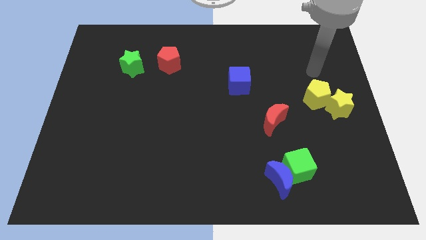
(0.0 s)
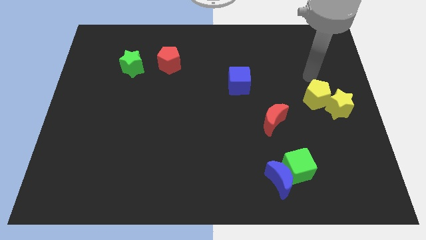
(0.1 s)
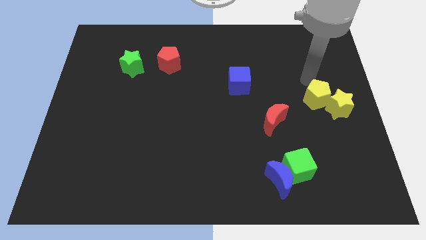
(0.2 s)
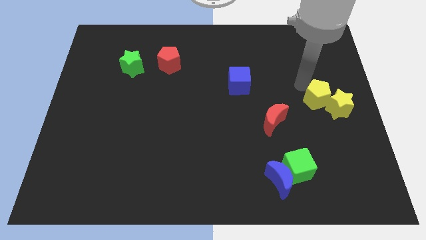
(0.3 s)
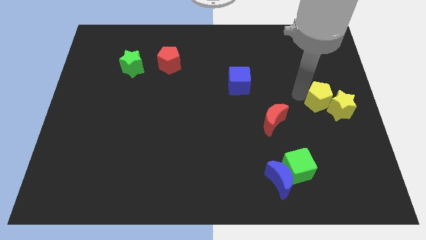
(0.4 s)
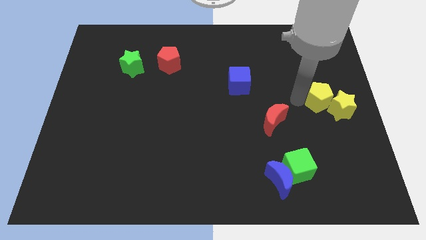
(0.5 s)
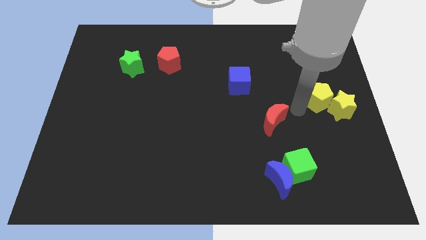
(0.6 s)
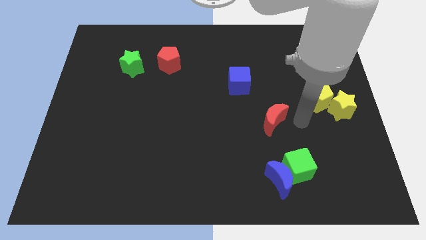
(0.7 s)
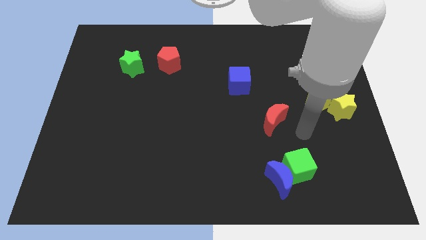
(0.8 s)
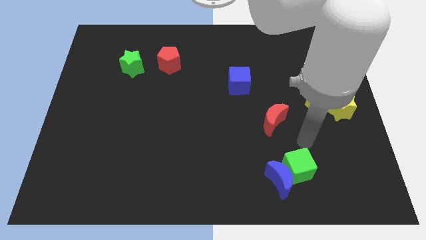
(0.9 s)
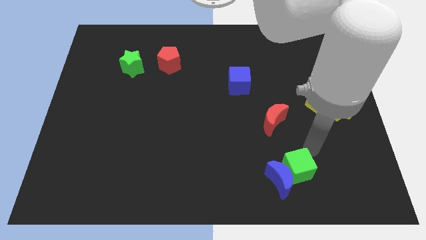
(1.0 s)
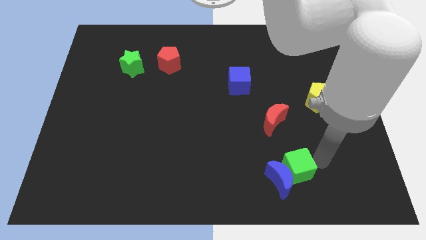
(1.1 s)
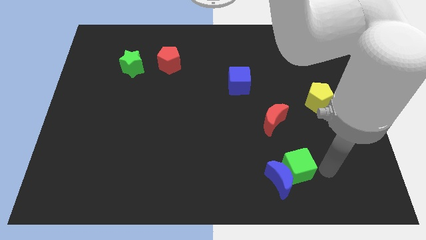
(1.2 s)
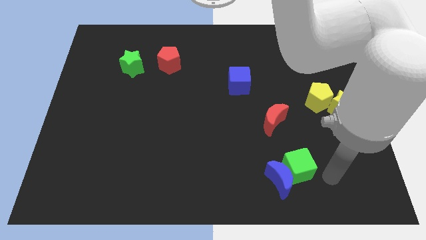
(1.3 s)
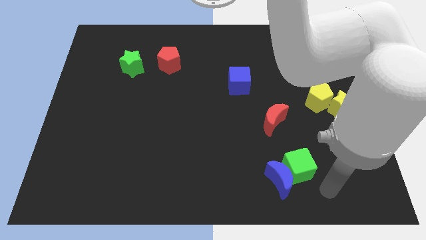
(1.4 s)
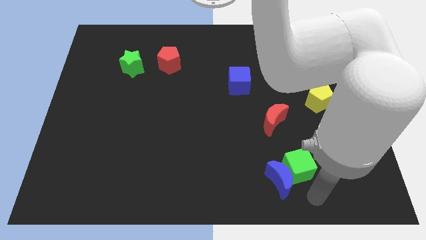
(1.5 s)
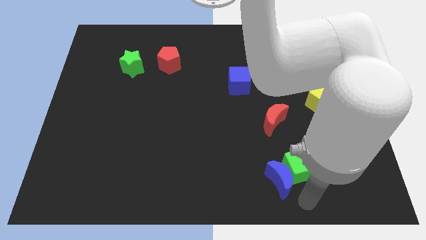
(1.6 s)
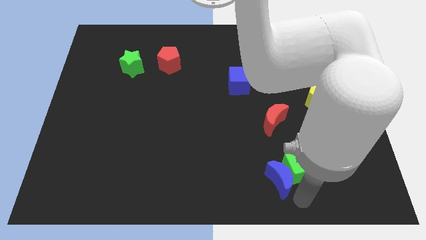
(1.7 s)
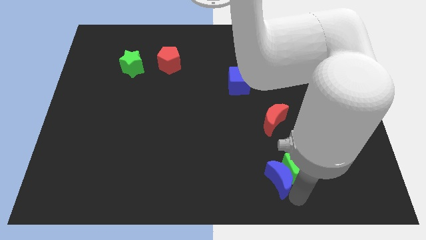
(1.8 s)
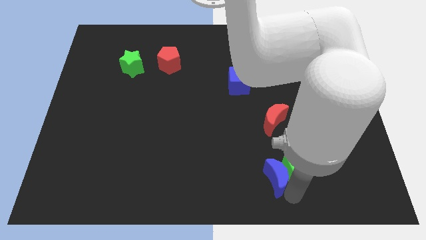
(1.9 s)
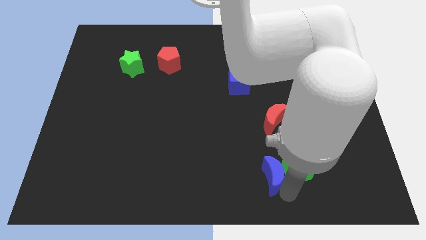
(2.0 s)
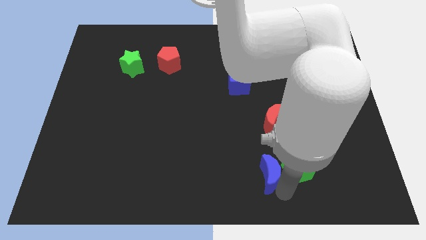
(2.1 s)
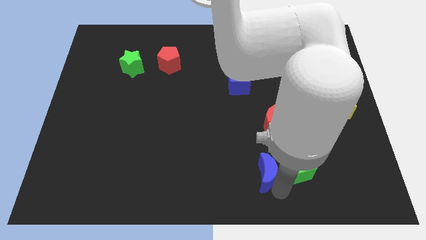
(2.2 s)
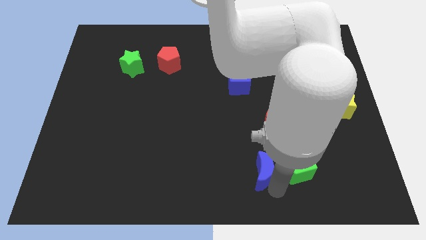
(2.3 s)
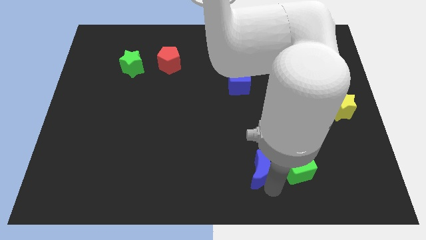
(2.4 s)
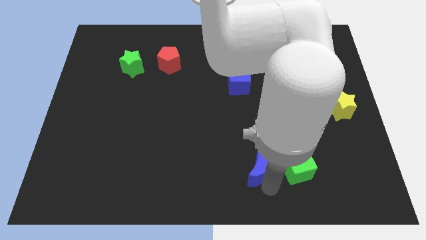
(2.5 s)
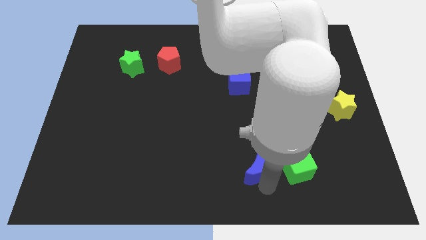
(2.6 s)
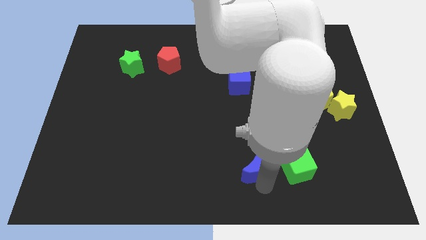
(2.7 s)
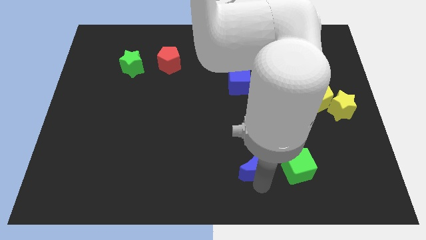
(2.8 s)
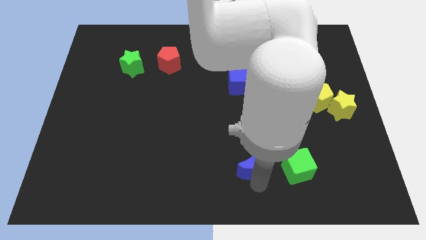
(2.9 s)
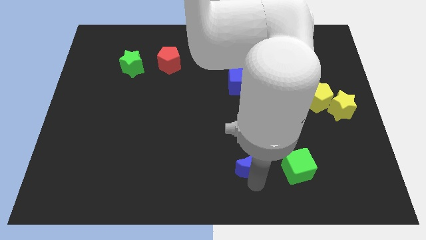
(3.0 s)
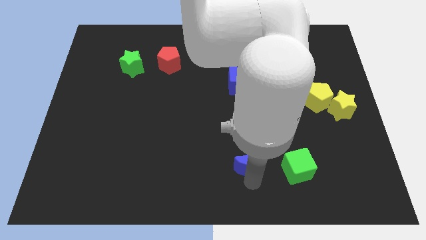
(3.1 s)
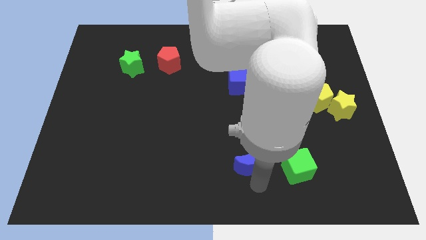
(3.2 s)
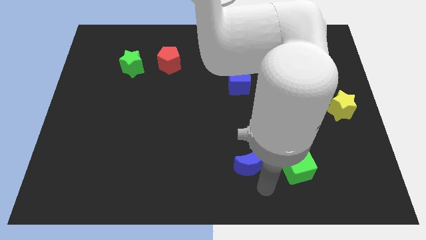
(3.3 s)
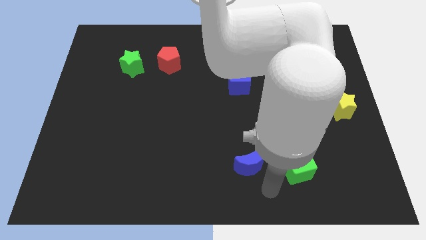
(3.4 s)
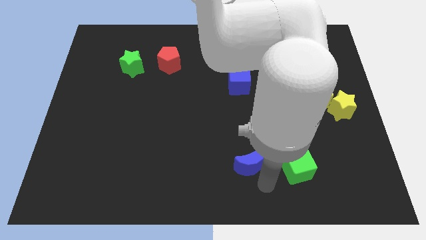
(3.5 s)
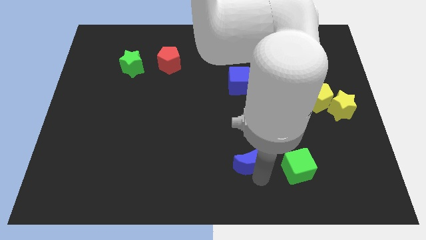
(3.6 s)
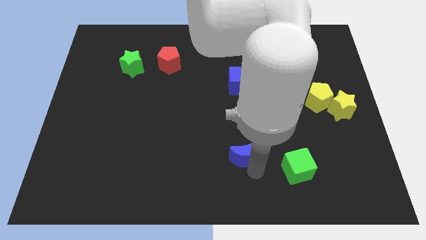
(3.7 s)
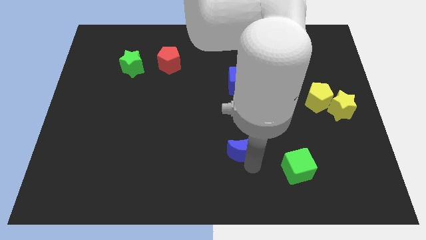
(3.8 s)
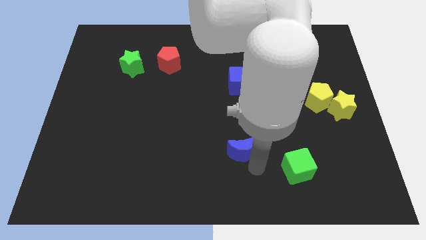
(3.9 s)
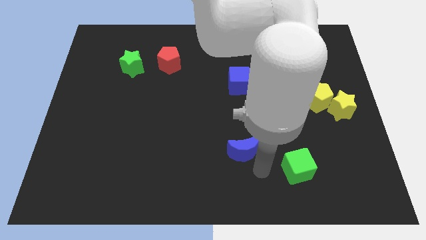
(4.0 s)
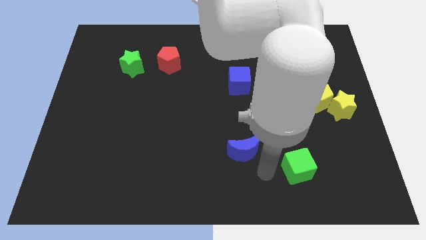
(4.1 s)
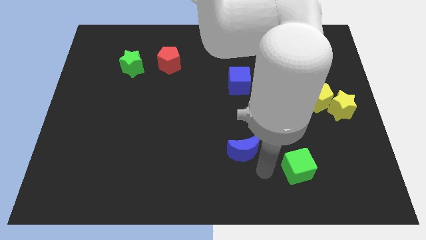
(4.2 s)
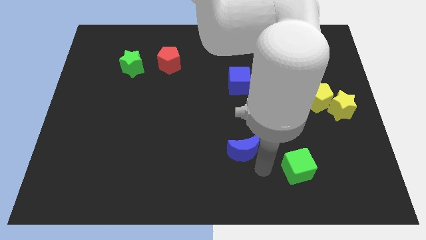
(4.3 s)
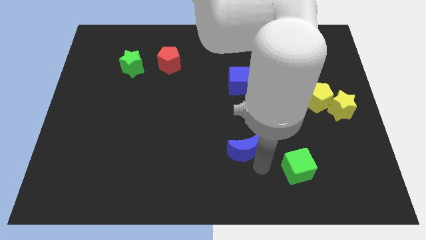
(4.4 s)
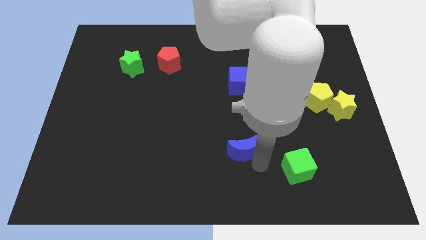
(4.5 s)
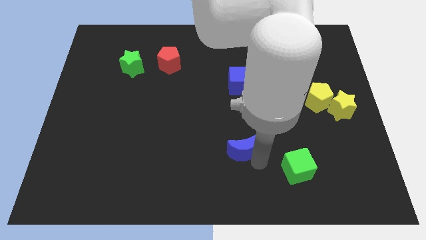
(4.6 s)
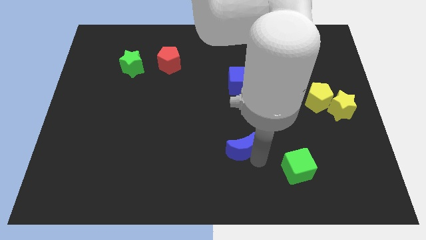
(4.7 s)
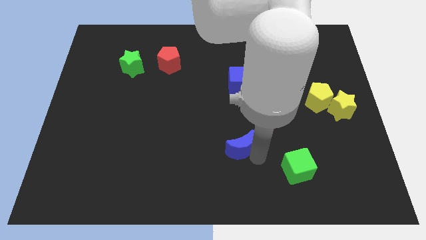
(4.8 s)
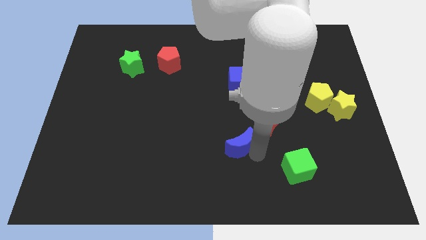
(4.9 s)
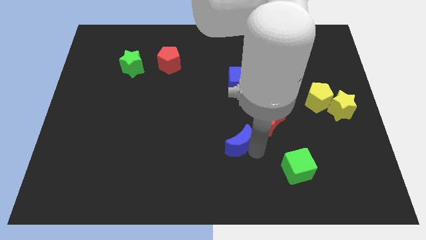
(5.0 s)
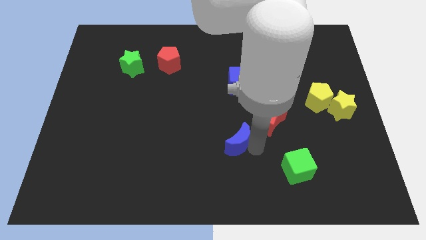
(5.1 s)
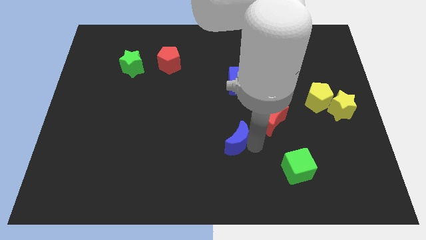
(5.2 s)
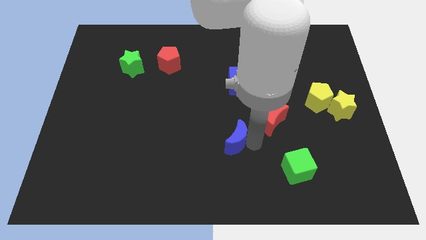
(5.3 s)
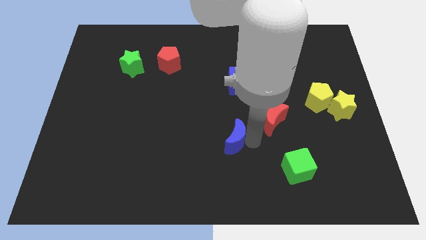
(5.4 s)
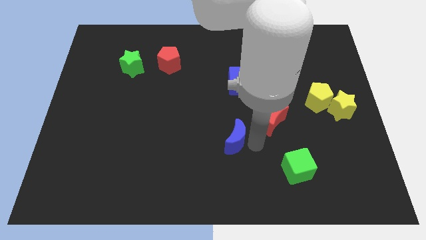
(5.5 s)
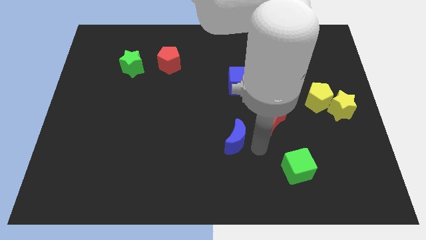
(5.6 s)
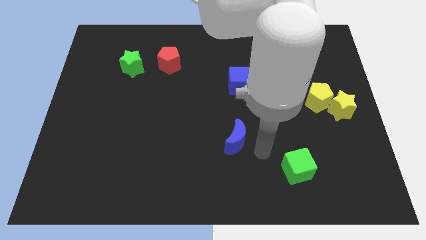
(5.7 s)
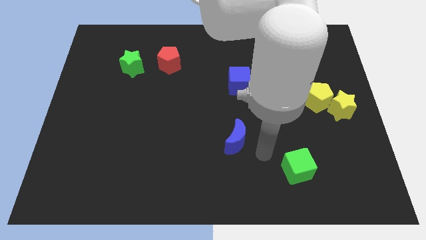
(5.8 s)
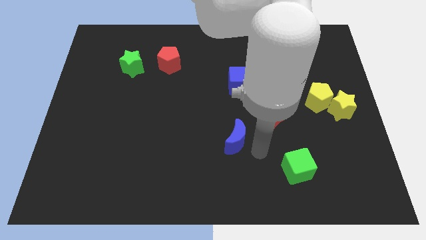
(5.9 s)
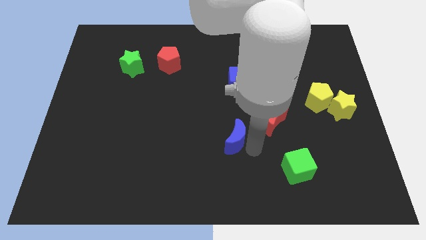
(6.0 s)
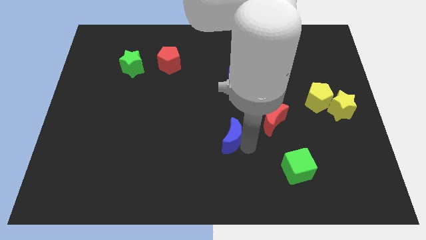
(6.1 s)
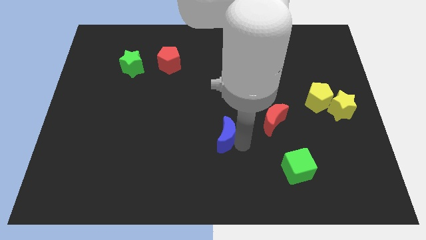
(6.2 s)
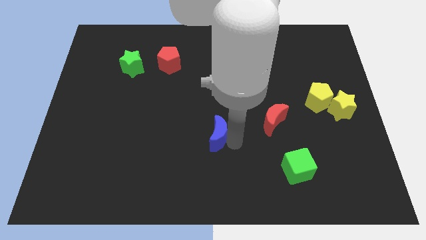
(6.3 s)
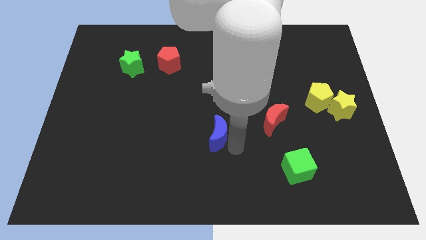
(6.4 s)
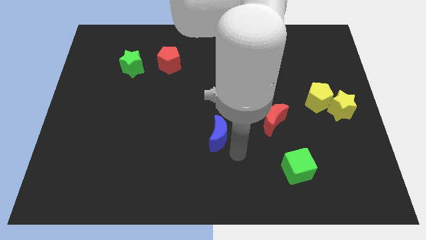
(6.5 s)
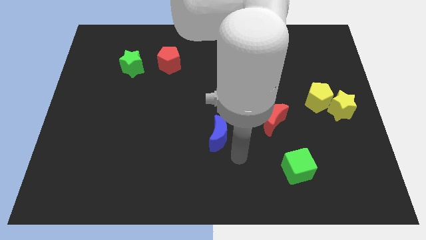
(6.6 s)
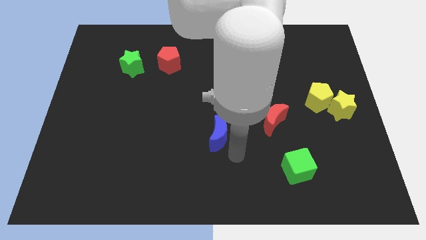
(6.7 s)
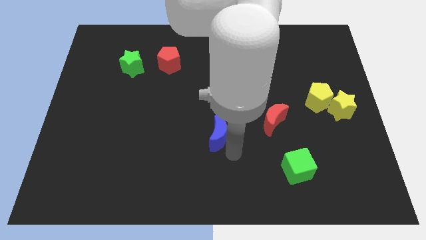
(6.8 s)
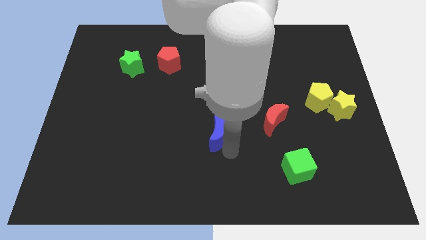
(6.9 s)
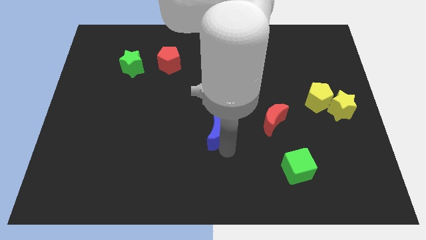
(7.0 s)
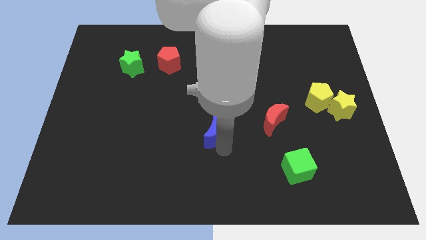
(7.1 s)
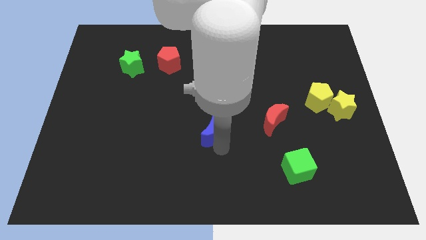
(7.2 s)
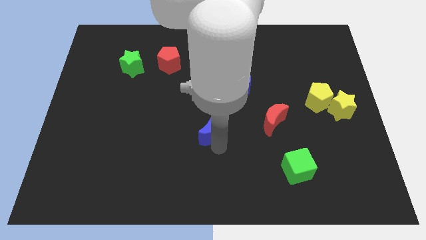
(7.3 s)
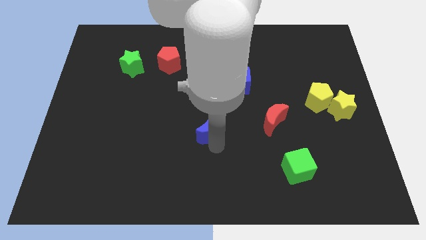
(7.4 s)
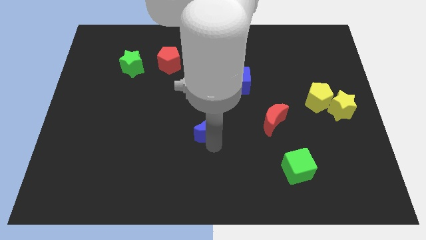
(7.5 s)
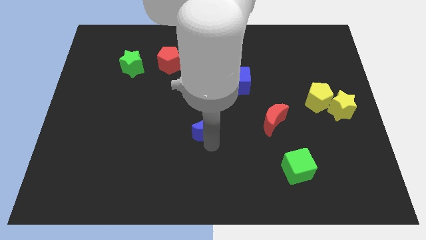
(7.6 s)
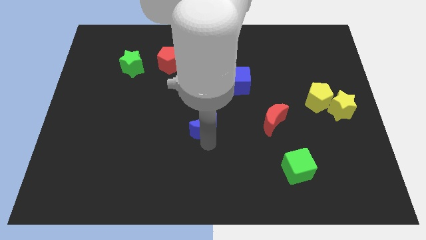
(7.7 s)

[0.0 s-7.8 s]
move the blue moon upwards and left diagonally
